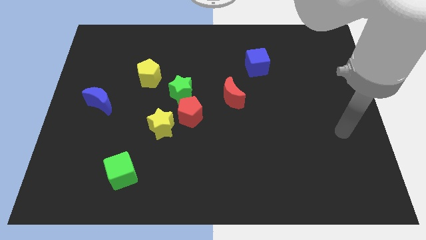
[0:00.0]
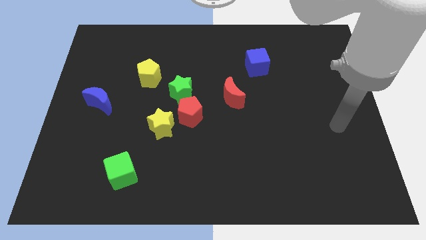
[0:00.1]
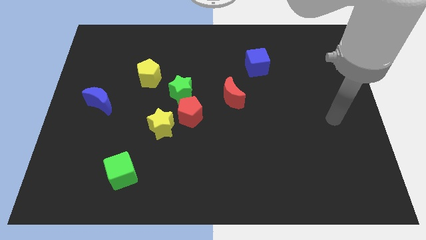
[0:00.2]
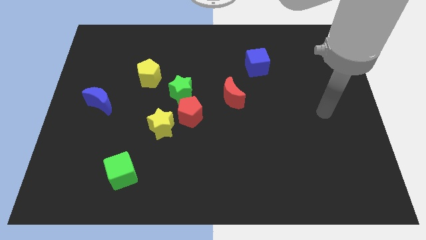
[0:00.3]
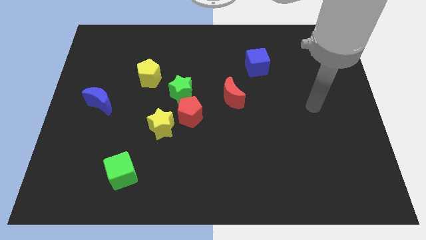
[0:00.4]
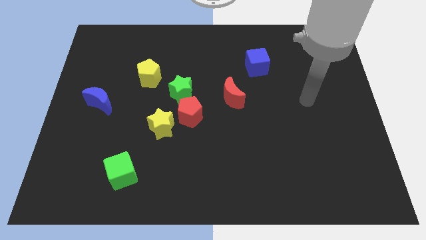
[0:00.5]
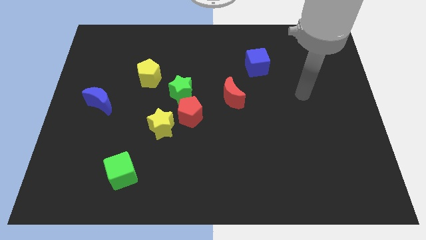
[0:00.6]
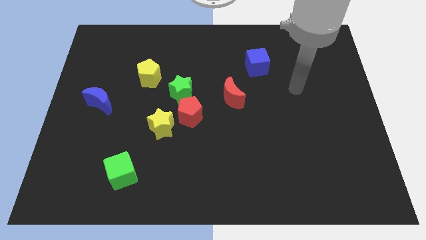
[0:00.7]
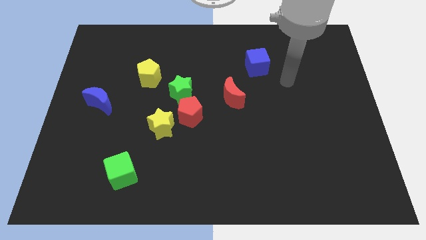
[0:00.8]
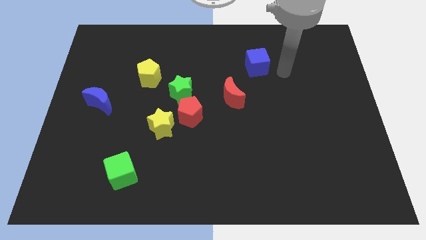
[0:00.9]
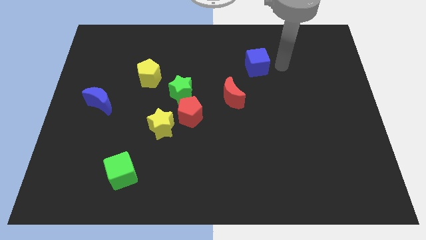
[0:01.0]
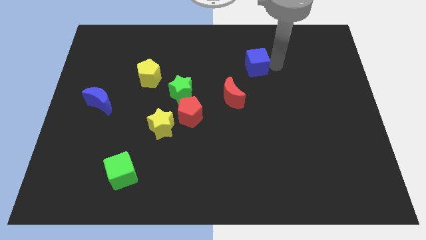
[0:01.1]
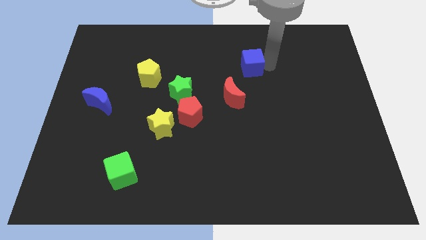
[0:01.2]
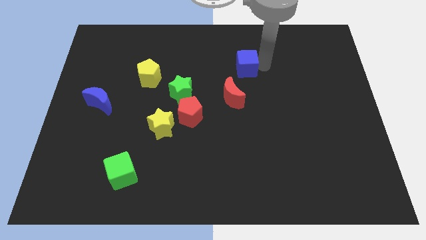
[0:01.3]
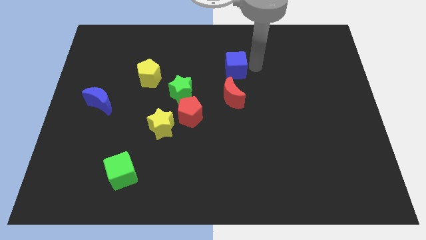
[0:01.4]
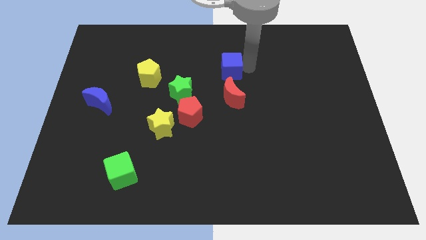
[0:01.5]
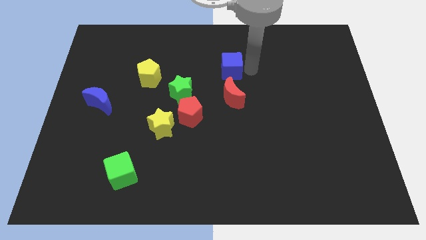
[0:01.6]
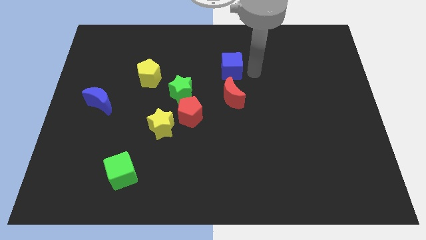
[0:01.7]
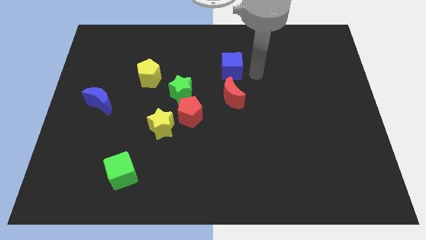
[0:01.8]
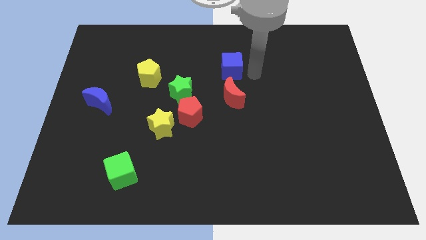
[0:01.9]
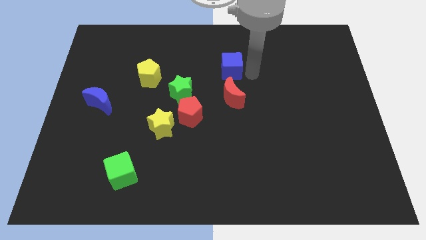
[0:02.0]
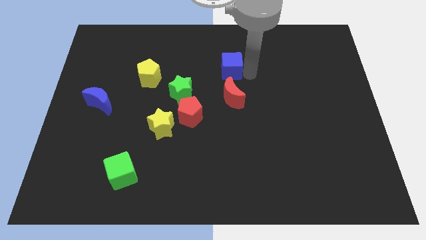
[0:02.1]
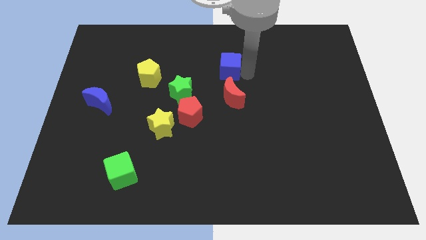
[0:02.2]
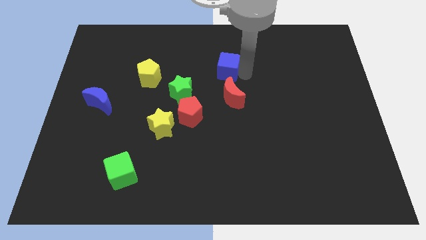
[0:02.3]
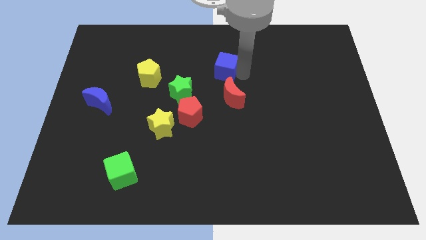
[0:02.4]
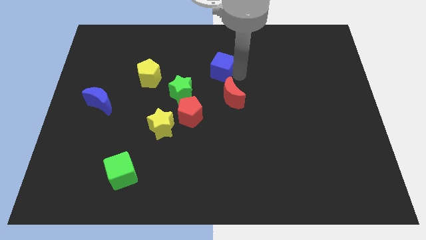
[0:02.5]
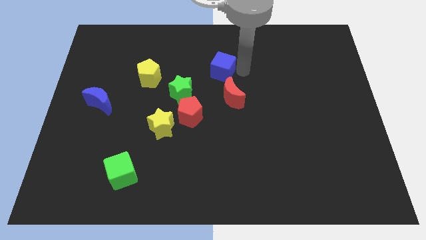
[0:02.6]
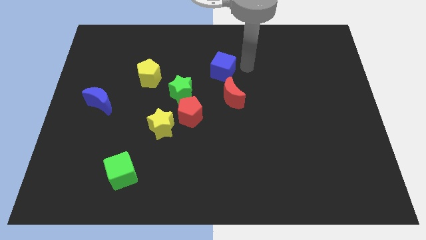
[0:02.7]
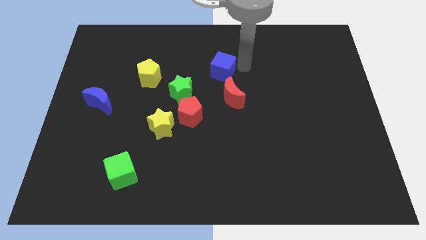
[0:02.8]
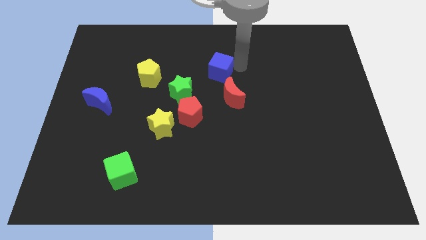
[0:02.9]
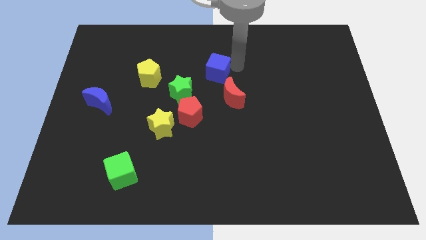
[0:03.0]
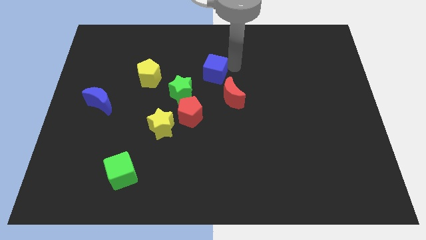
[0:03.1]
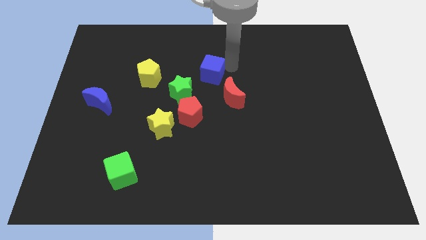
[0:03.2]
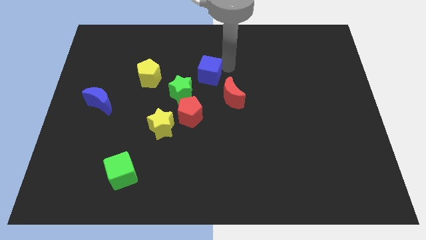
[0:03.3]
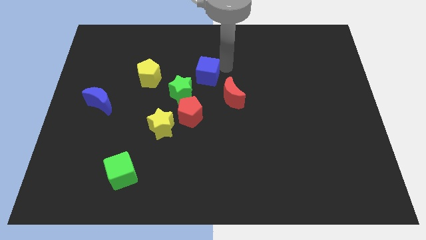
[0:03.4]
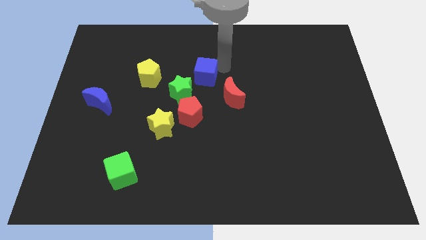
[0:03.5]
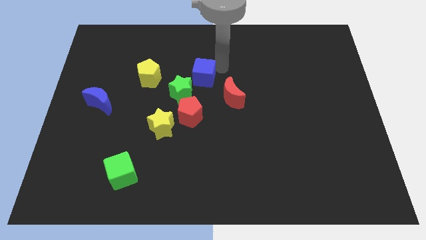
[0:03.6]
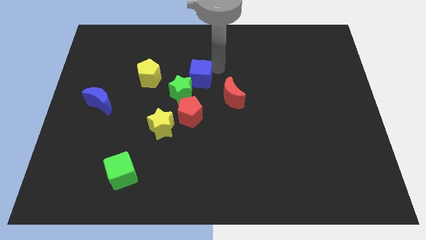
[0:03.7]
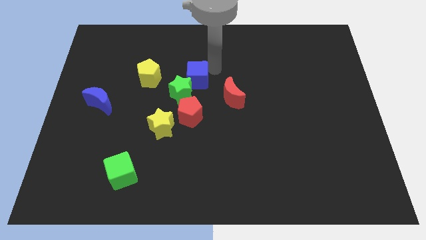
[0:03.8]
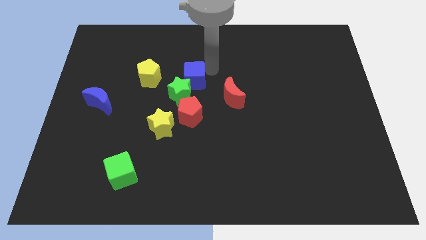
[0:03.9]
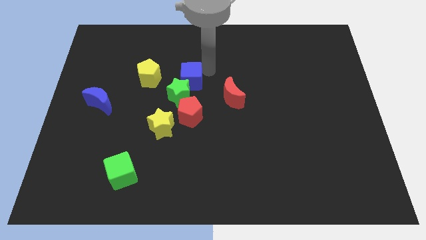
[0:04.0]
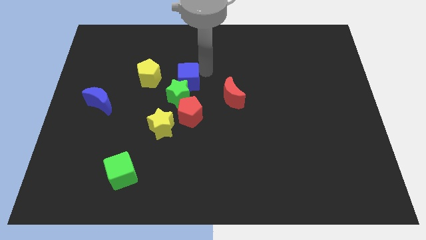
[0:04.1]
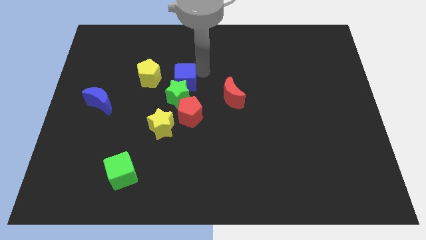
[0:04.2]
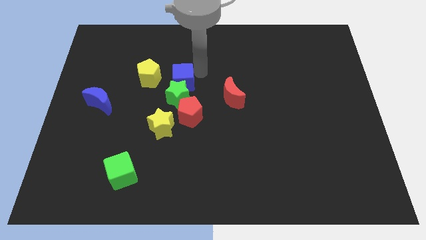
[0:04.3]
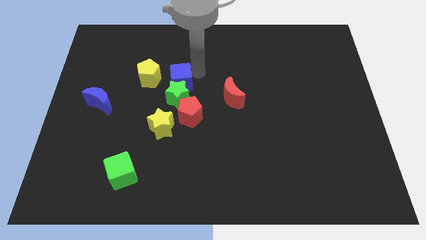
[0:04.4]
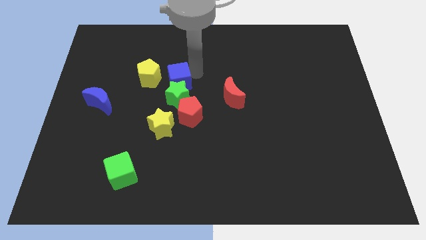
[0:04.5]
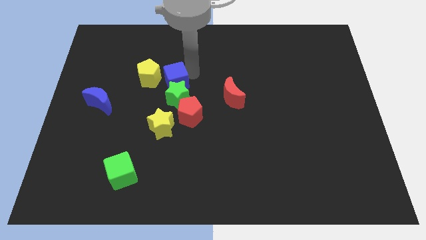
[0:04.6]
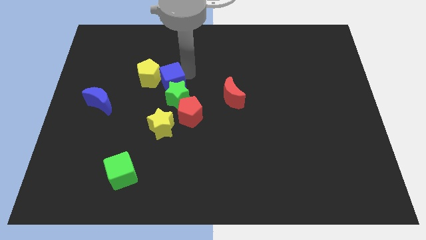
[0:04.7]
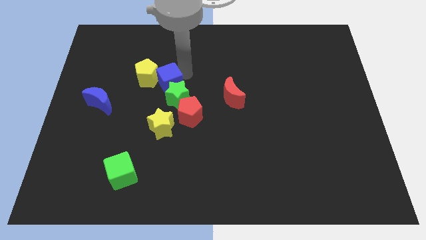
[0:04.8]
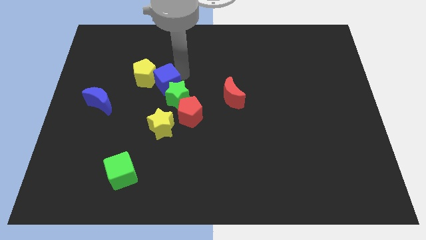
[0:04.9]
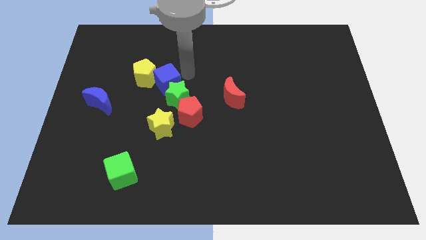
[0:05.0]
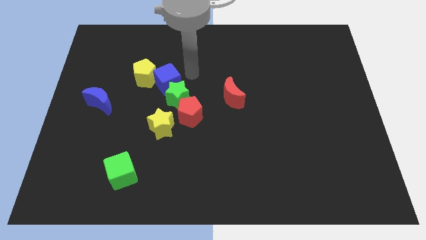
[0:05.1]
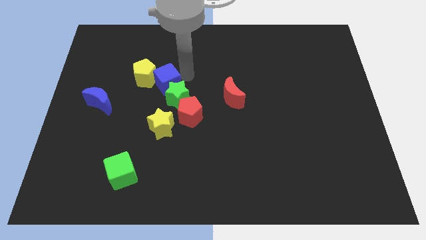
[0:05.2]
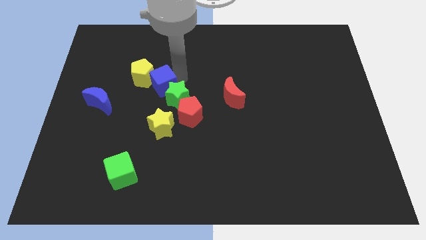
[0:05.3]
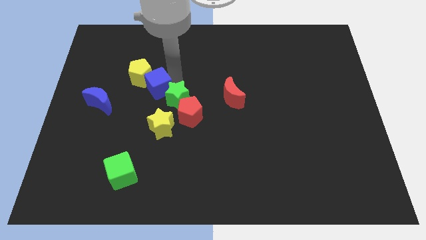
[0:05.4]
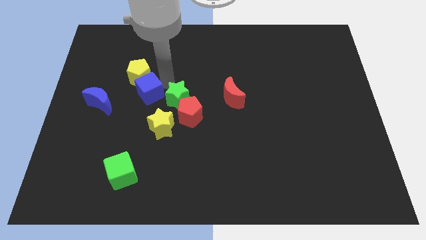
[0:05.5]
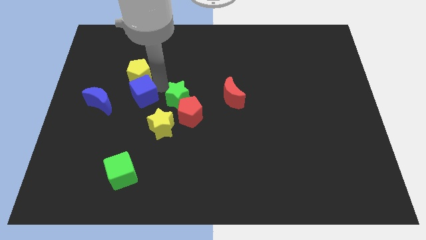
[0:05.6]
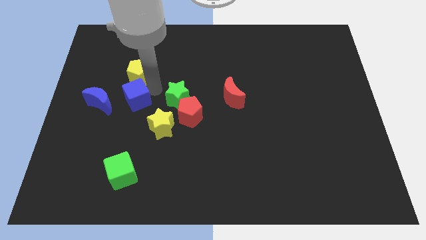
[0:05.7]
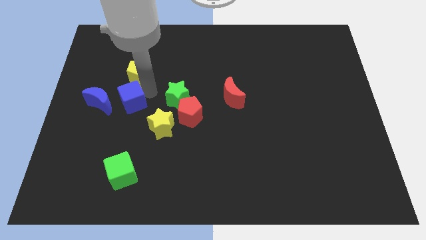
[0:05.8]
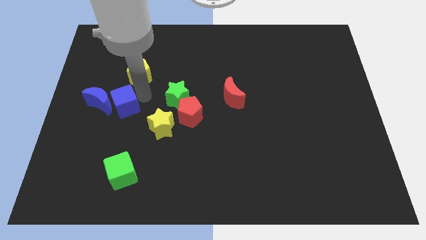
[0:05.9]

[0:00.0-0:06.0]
push the blue cube next to the blue moon

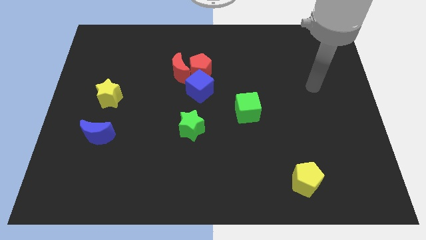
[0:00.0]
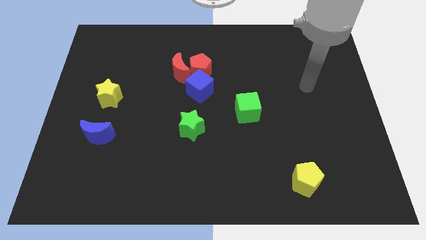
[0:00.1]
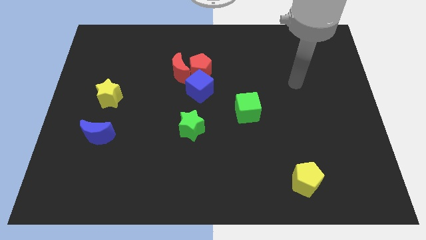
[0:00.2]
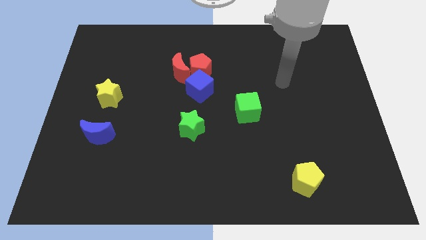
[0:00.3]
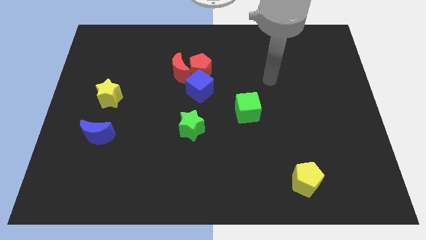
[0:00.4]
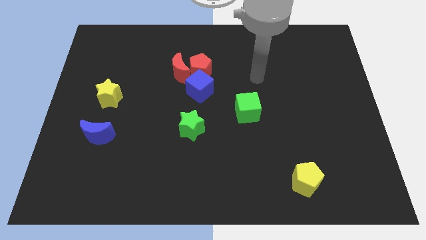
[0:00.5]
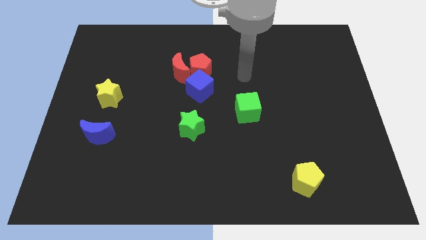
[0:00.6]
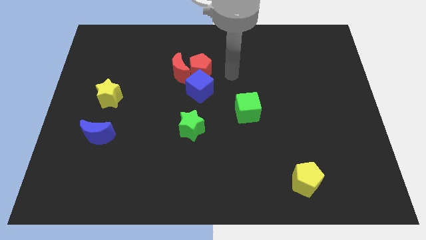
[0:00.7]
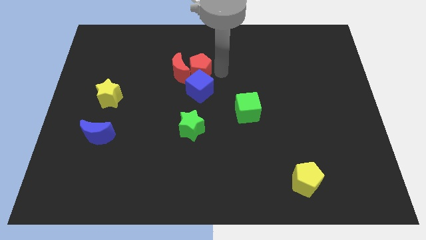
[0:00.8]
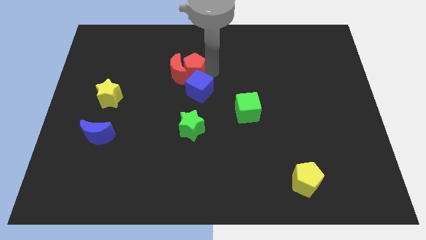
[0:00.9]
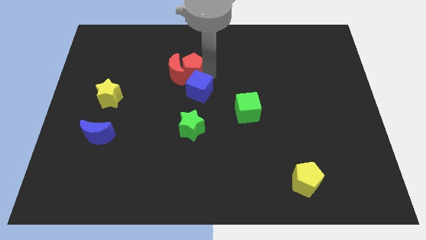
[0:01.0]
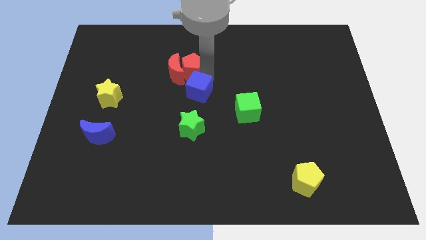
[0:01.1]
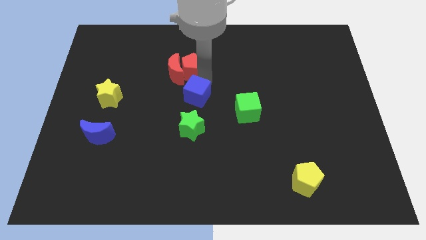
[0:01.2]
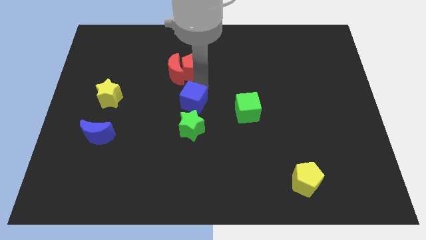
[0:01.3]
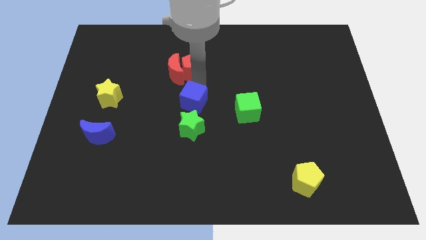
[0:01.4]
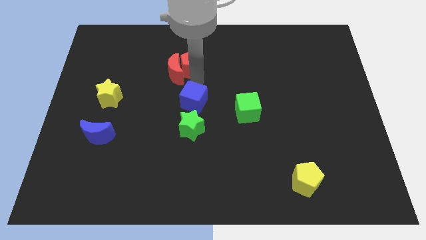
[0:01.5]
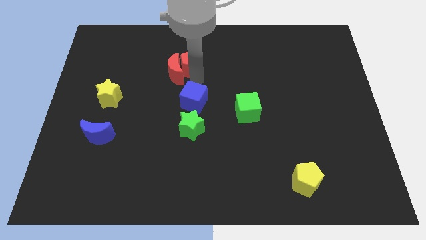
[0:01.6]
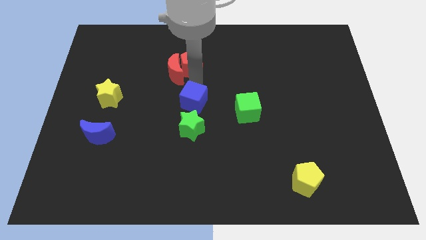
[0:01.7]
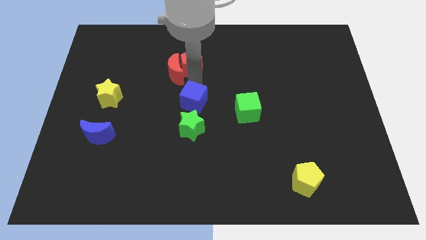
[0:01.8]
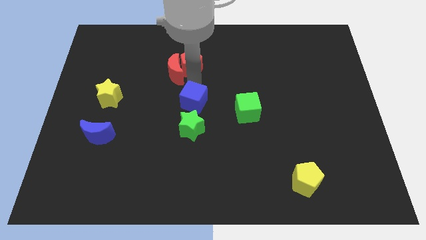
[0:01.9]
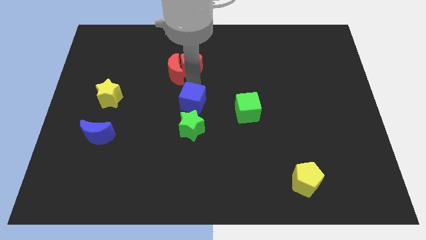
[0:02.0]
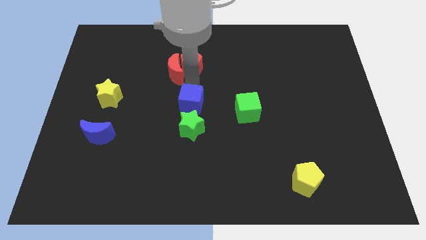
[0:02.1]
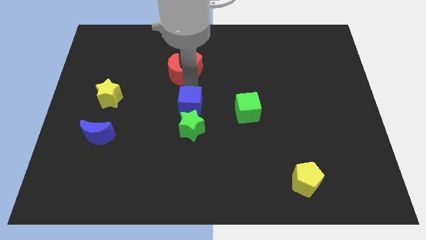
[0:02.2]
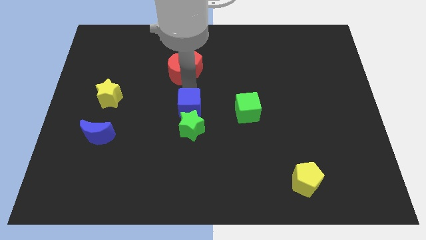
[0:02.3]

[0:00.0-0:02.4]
put the blue cube towards the green star
